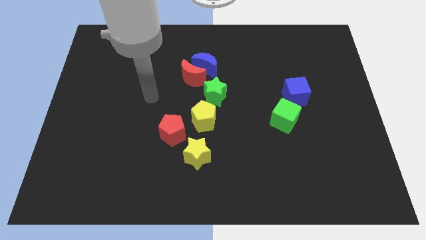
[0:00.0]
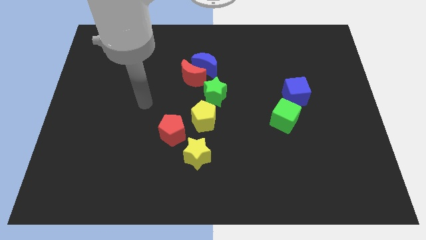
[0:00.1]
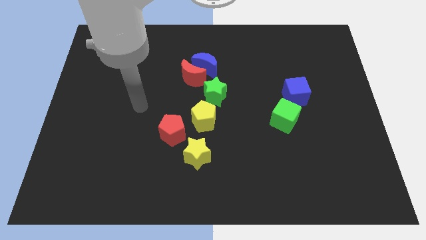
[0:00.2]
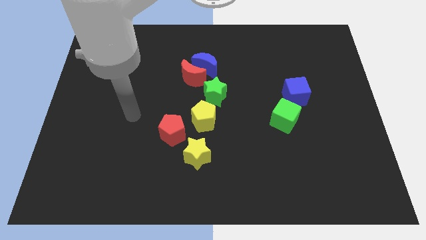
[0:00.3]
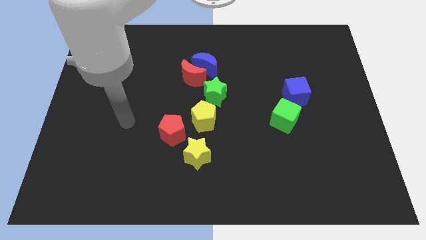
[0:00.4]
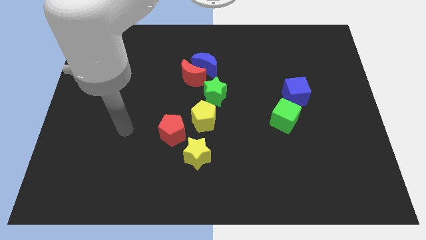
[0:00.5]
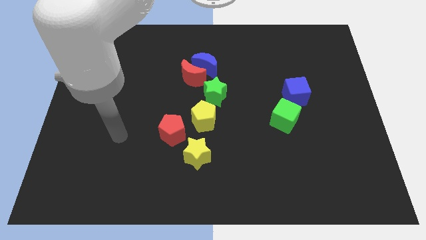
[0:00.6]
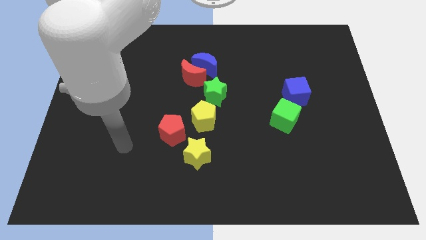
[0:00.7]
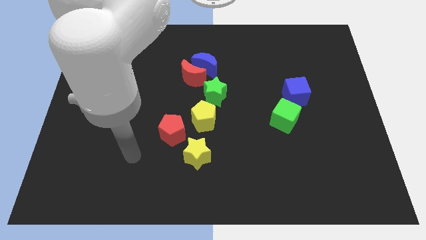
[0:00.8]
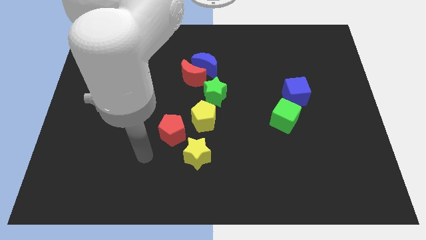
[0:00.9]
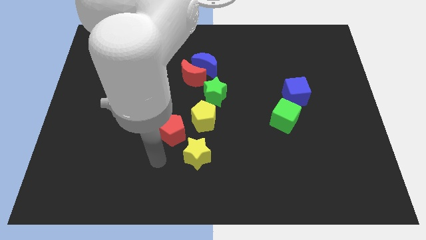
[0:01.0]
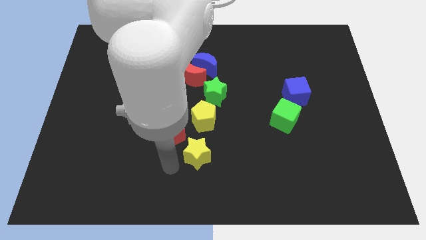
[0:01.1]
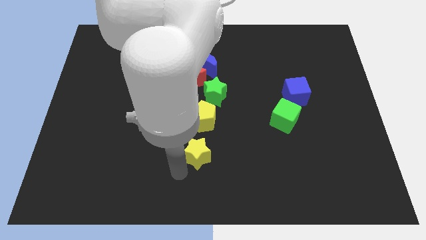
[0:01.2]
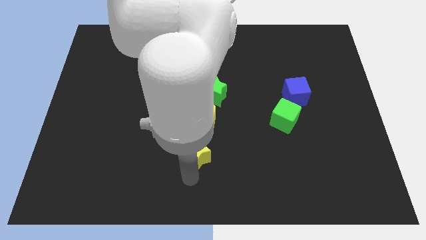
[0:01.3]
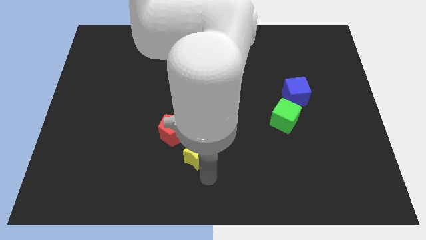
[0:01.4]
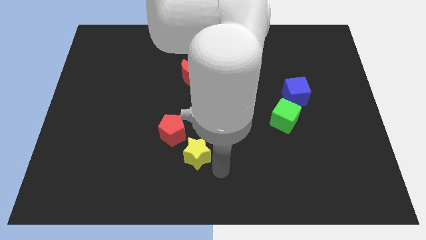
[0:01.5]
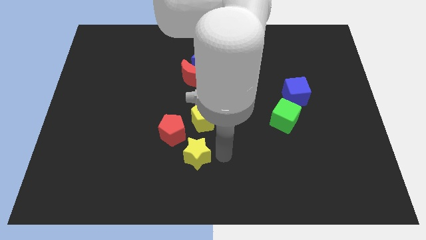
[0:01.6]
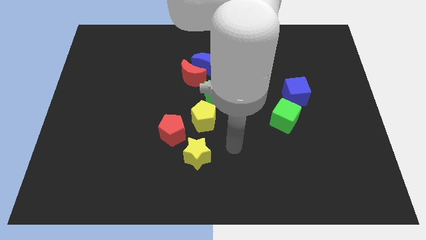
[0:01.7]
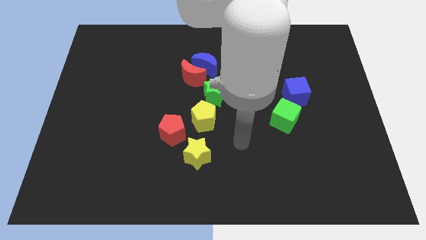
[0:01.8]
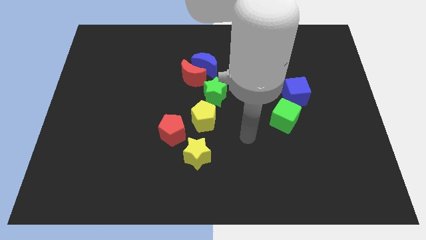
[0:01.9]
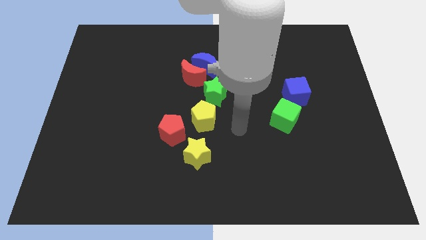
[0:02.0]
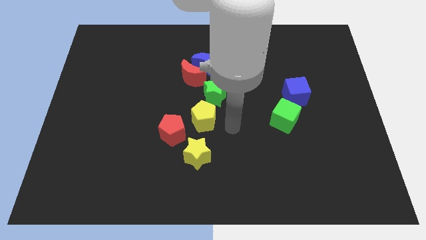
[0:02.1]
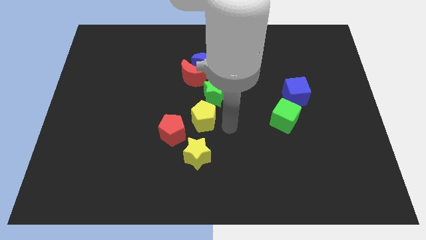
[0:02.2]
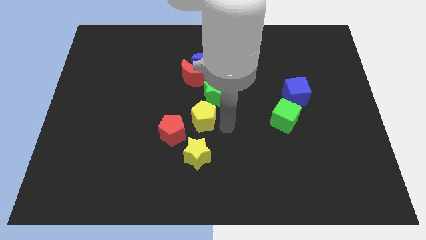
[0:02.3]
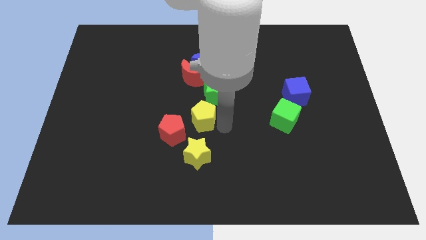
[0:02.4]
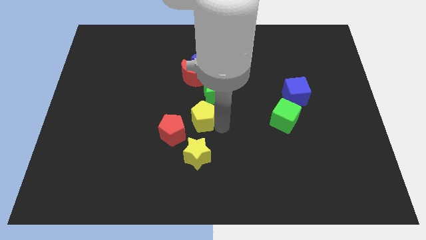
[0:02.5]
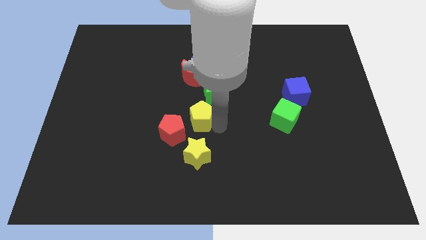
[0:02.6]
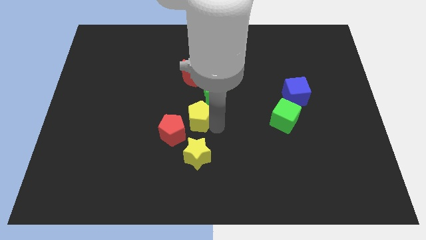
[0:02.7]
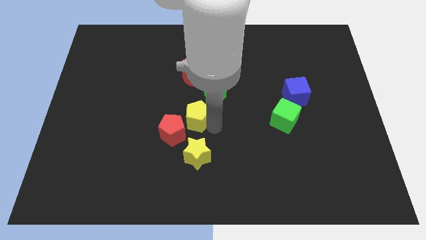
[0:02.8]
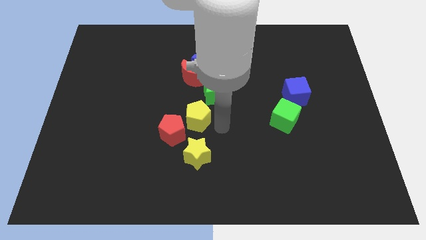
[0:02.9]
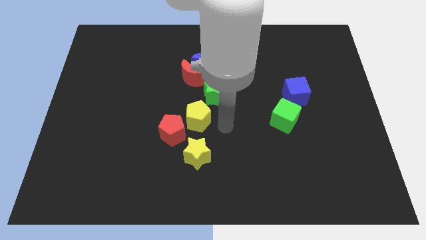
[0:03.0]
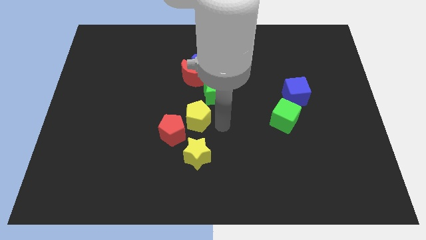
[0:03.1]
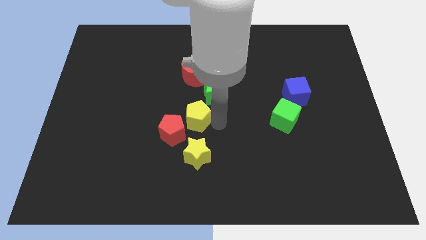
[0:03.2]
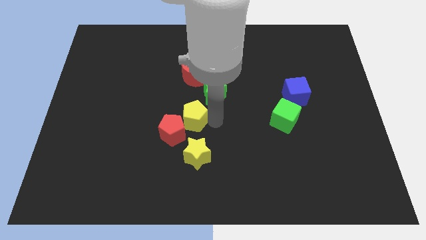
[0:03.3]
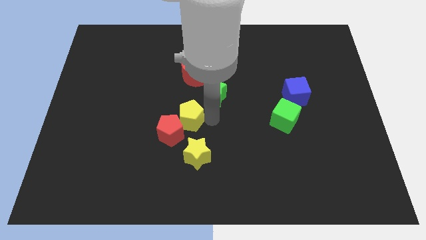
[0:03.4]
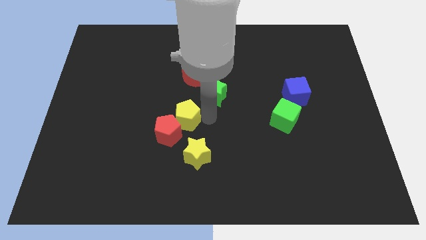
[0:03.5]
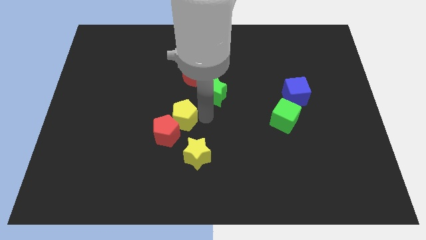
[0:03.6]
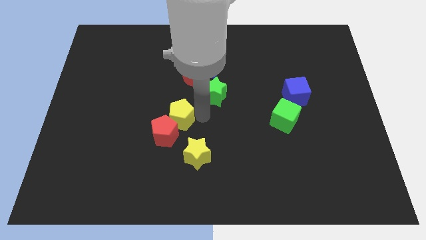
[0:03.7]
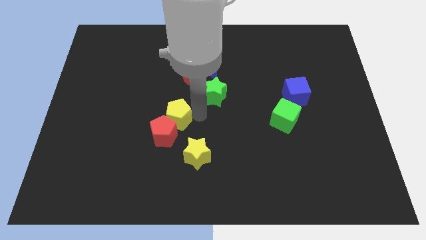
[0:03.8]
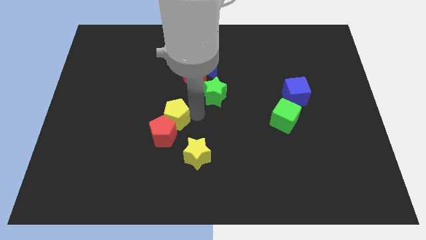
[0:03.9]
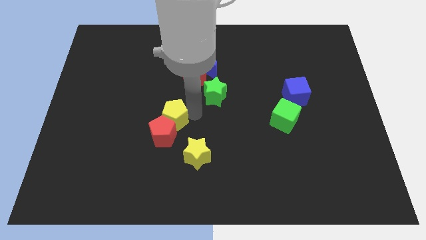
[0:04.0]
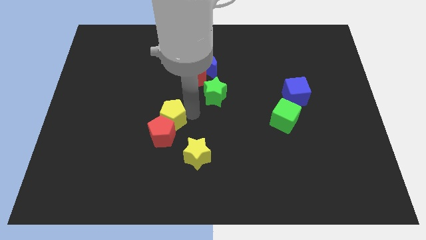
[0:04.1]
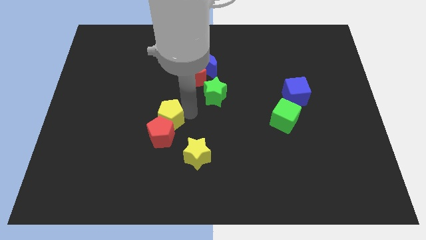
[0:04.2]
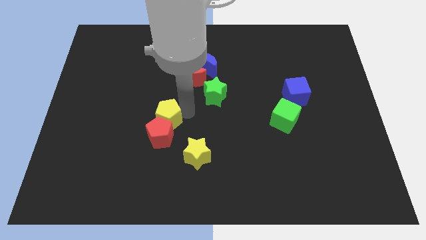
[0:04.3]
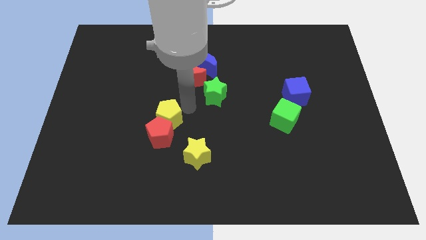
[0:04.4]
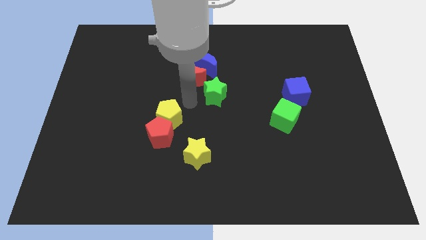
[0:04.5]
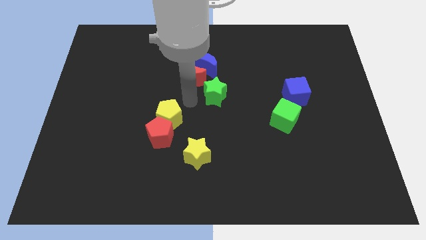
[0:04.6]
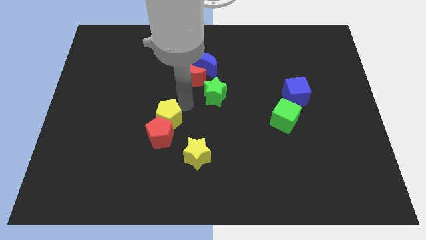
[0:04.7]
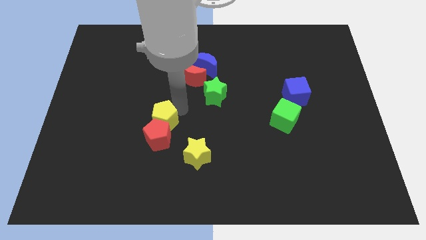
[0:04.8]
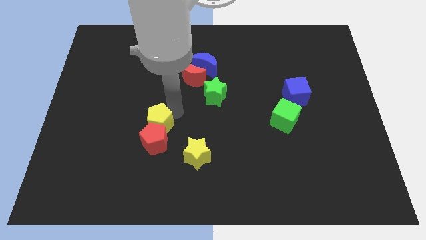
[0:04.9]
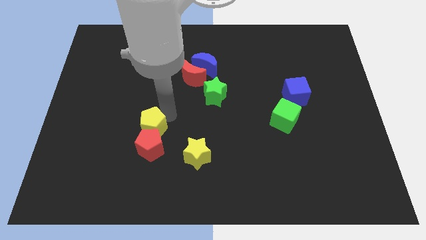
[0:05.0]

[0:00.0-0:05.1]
slightly move the yellow pentagon diagonally downwards and to the left

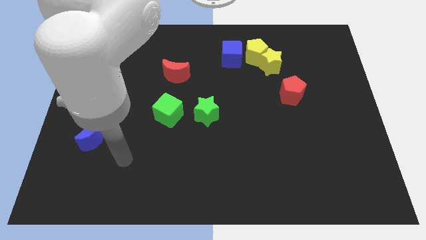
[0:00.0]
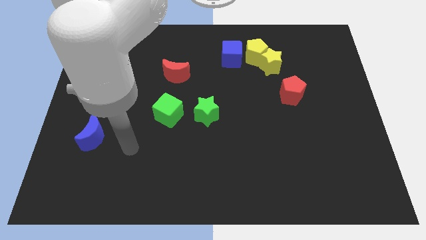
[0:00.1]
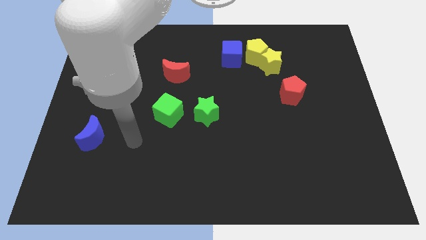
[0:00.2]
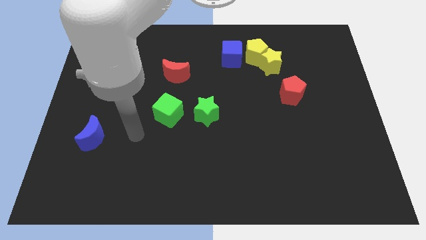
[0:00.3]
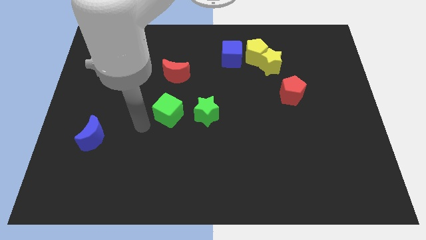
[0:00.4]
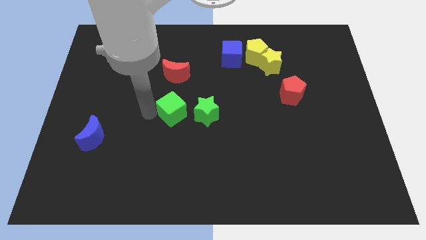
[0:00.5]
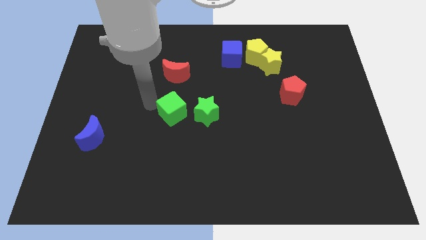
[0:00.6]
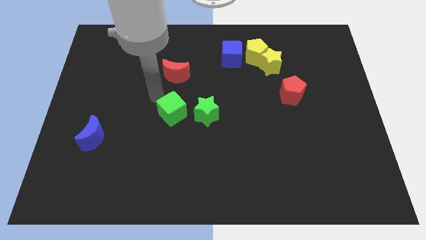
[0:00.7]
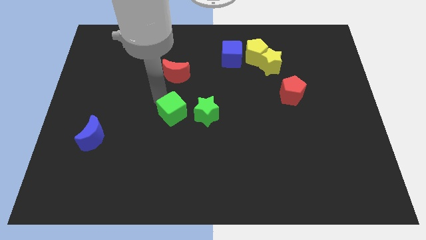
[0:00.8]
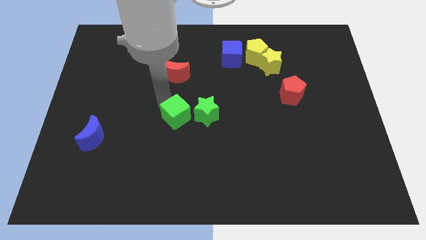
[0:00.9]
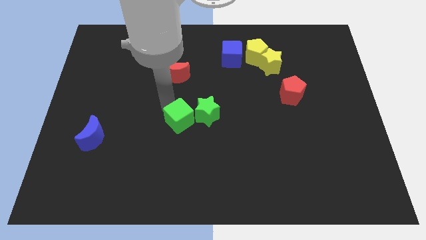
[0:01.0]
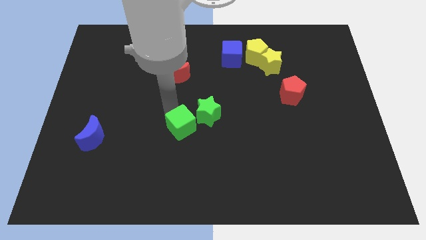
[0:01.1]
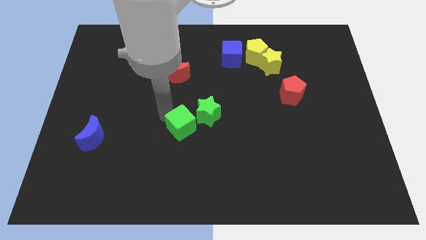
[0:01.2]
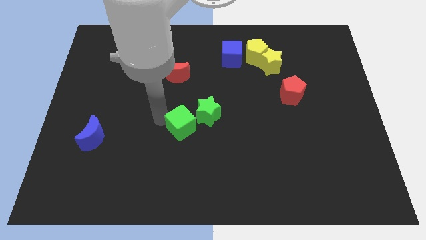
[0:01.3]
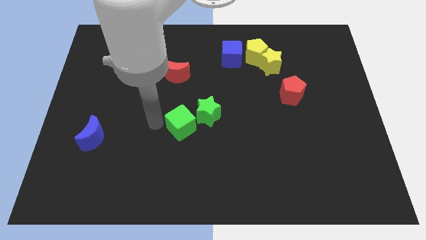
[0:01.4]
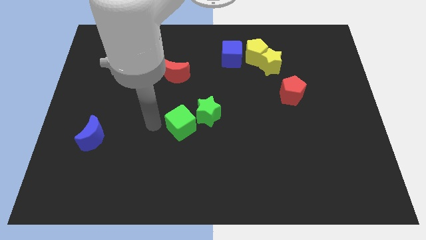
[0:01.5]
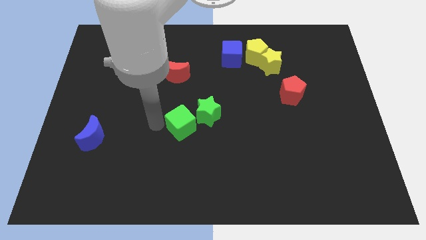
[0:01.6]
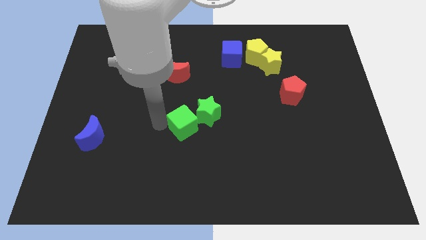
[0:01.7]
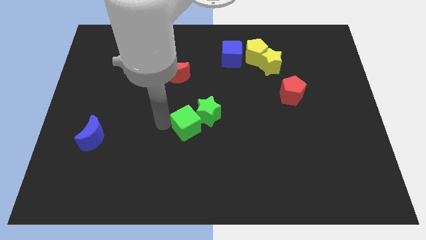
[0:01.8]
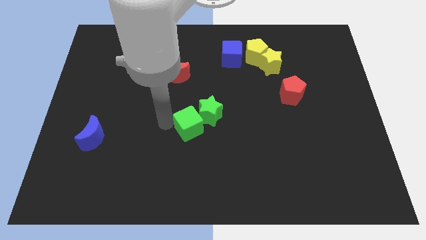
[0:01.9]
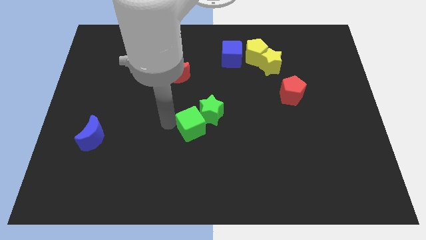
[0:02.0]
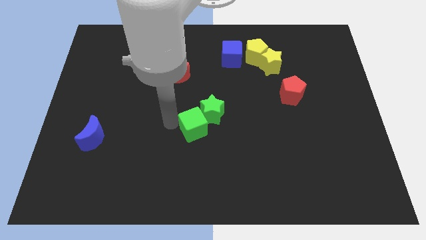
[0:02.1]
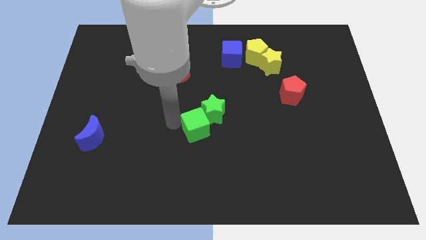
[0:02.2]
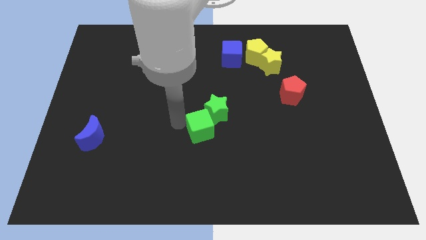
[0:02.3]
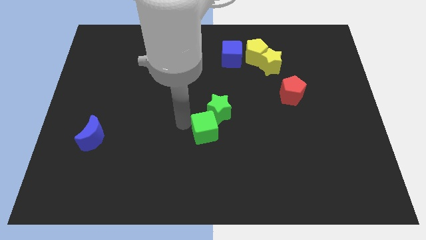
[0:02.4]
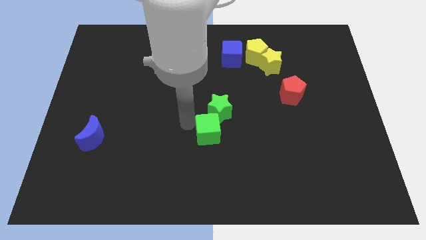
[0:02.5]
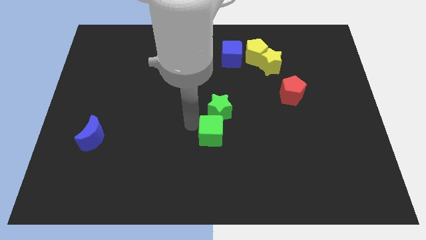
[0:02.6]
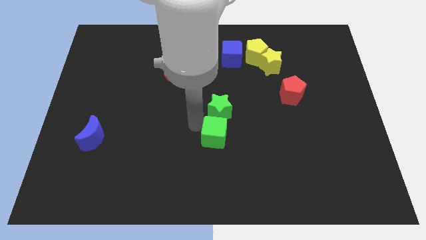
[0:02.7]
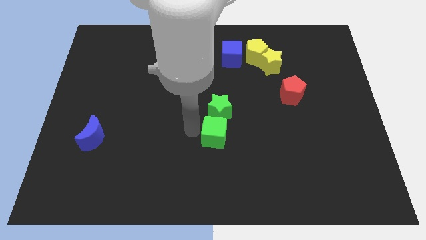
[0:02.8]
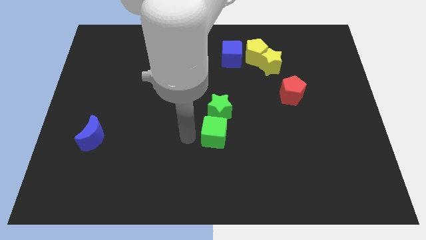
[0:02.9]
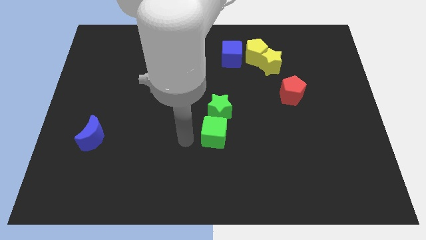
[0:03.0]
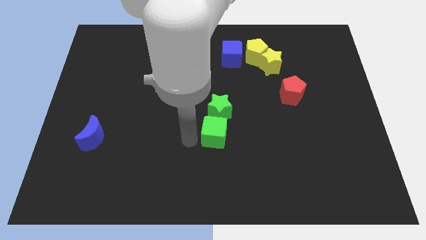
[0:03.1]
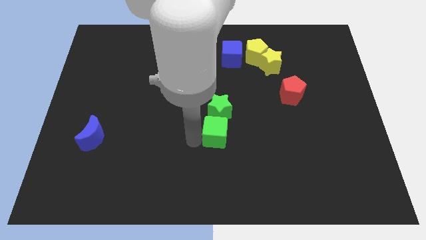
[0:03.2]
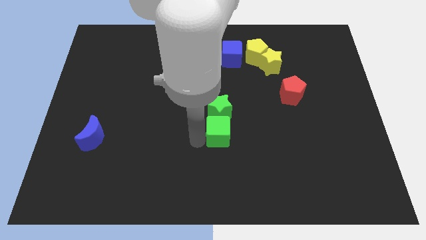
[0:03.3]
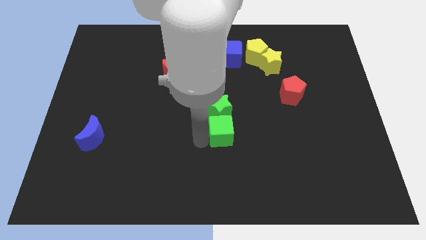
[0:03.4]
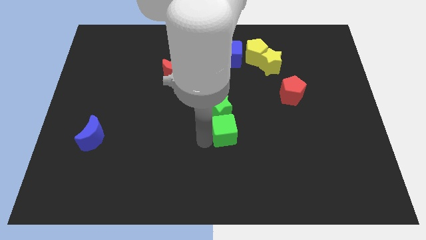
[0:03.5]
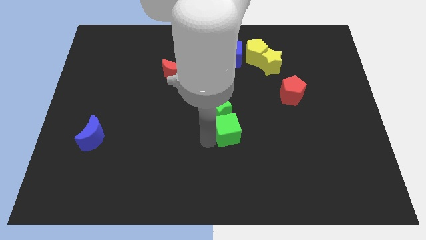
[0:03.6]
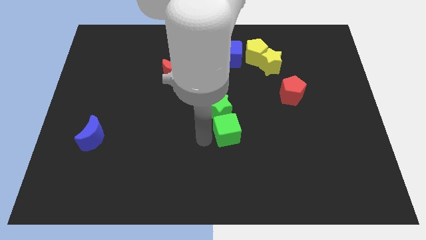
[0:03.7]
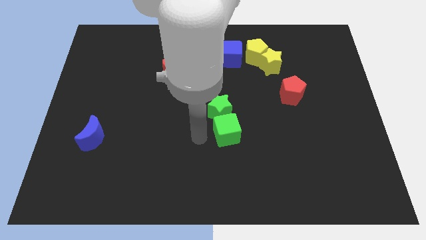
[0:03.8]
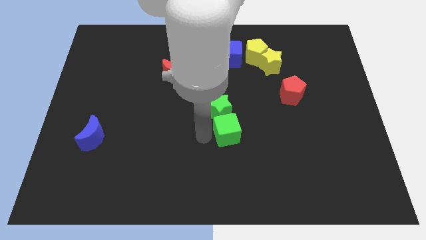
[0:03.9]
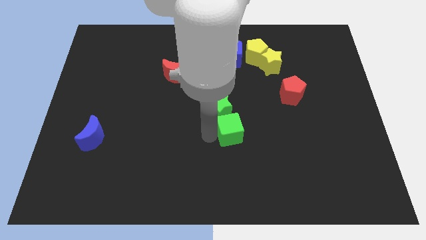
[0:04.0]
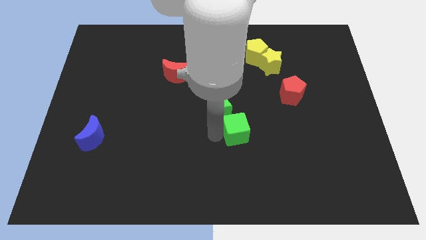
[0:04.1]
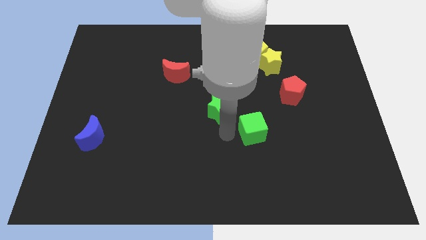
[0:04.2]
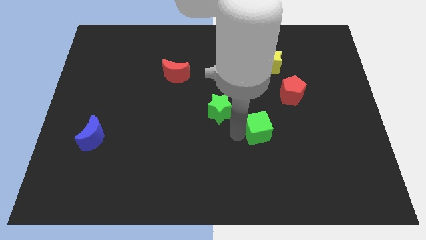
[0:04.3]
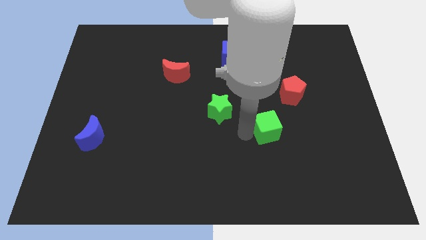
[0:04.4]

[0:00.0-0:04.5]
move the green cube to the right
